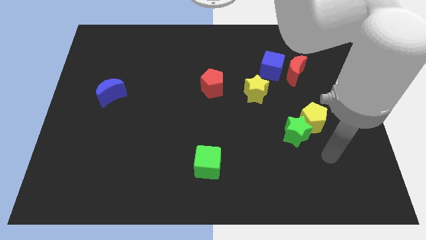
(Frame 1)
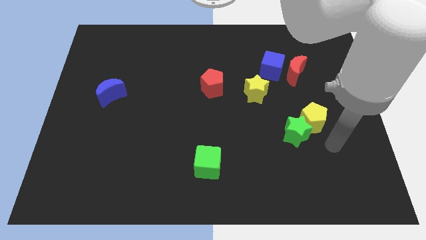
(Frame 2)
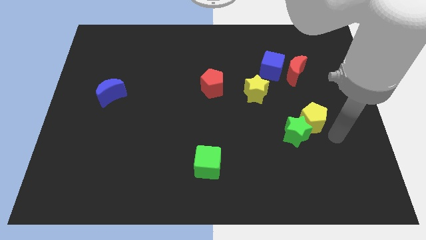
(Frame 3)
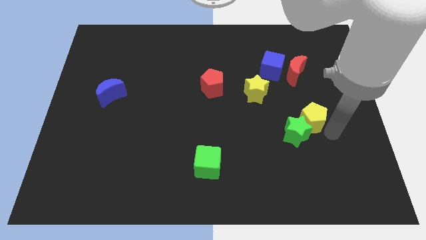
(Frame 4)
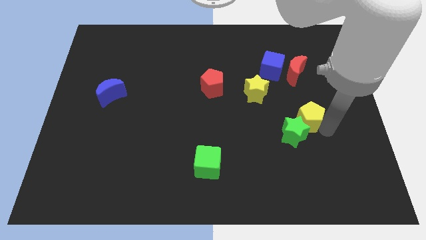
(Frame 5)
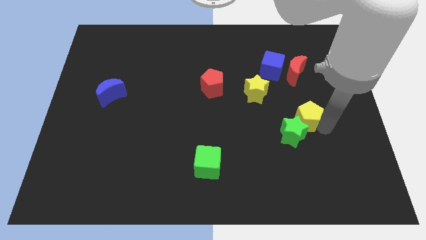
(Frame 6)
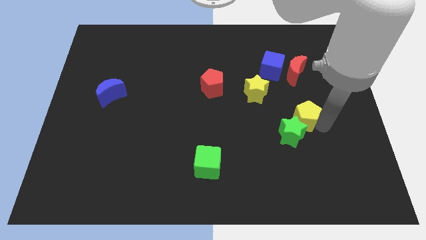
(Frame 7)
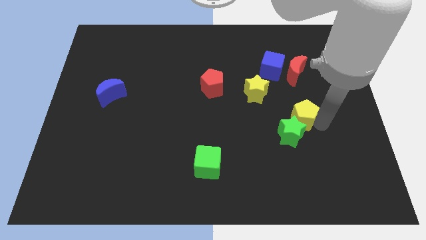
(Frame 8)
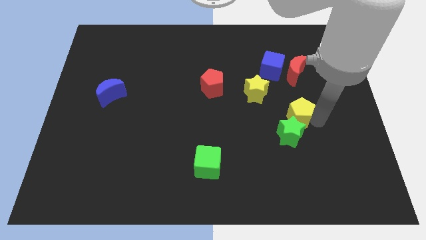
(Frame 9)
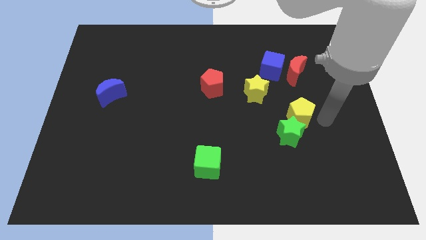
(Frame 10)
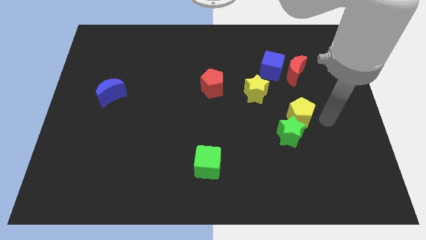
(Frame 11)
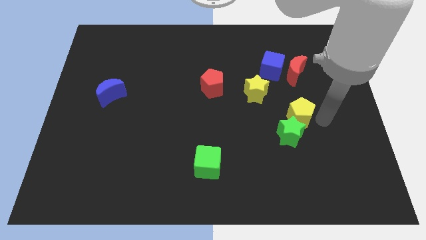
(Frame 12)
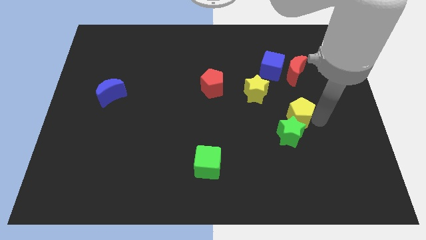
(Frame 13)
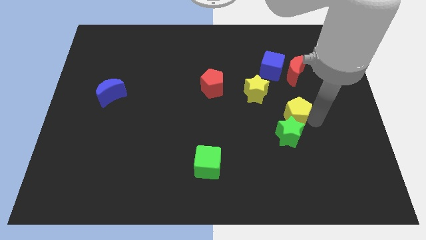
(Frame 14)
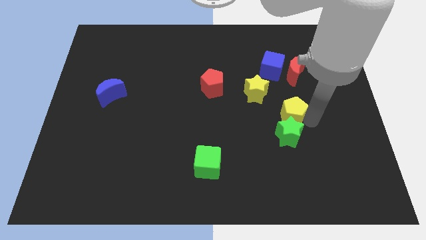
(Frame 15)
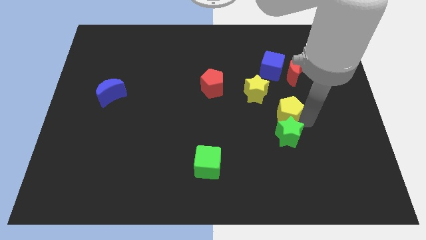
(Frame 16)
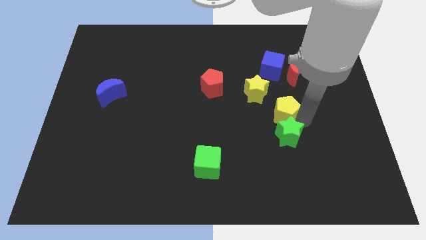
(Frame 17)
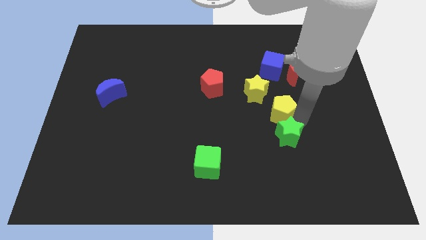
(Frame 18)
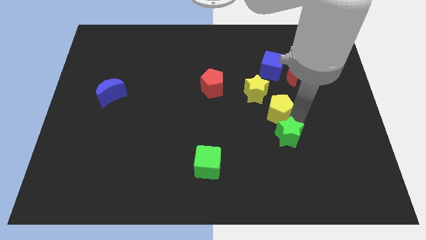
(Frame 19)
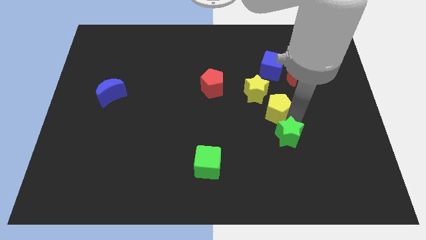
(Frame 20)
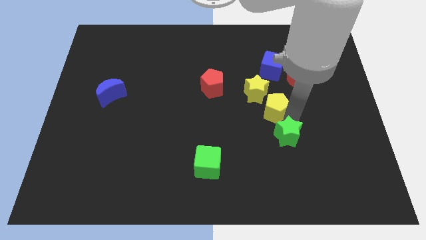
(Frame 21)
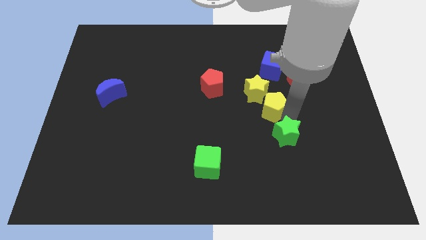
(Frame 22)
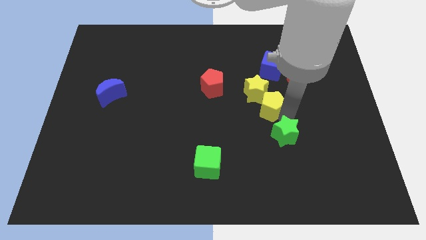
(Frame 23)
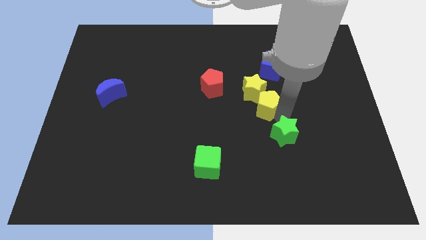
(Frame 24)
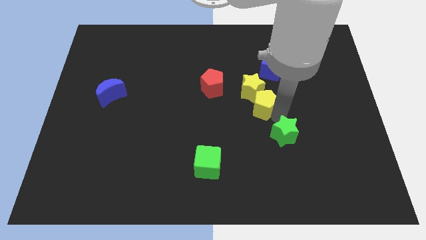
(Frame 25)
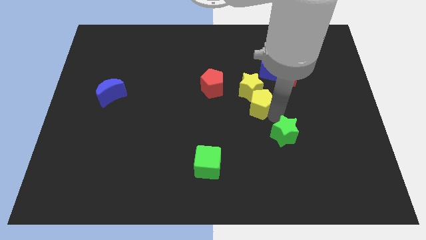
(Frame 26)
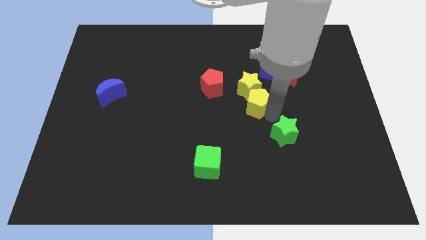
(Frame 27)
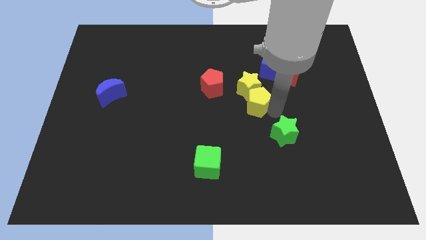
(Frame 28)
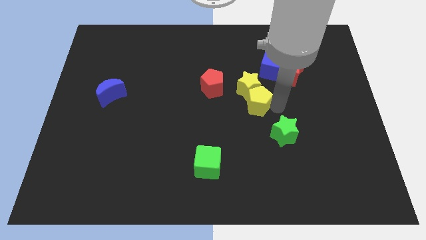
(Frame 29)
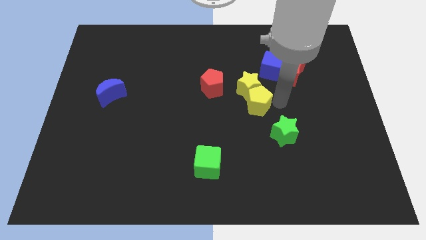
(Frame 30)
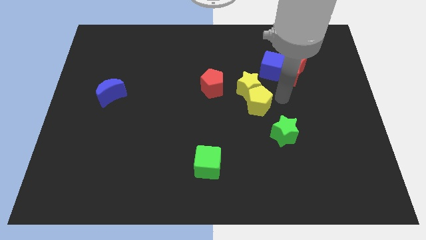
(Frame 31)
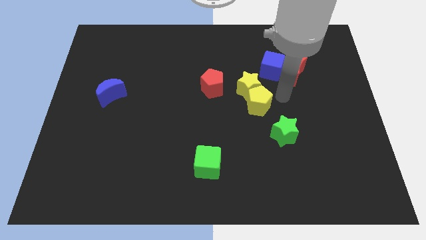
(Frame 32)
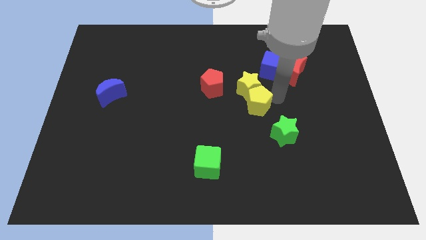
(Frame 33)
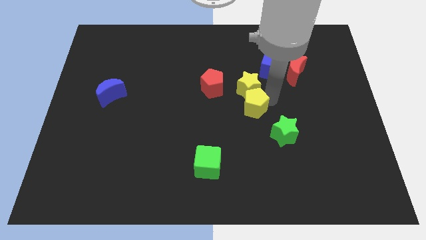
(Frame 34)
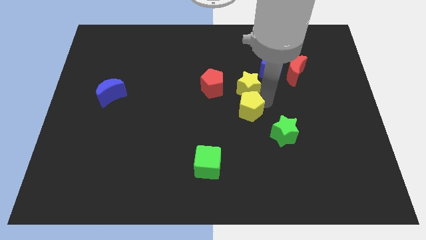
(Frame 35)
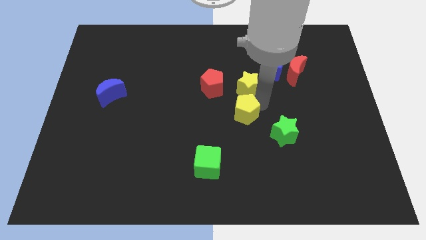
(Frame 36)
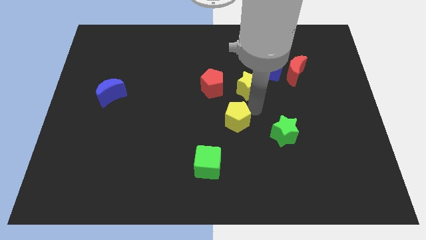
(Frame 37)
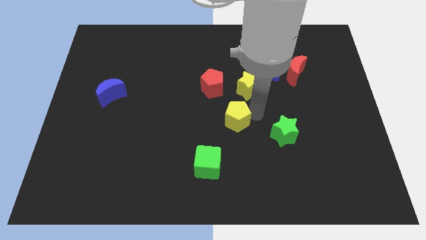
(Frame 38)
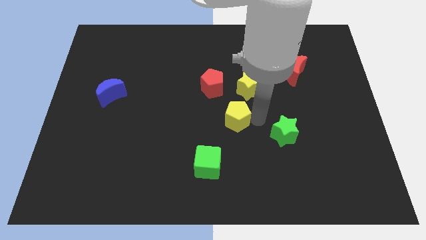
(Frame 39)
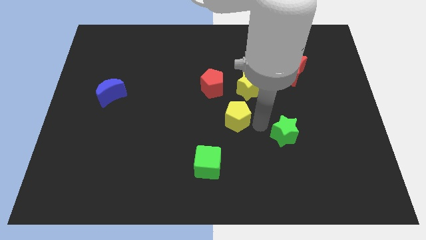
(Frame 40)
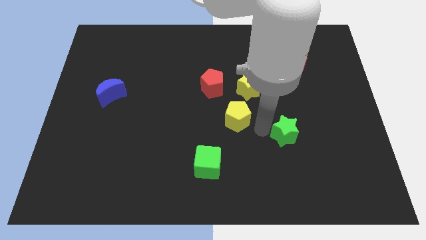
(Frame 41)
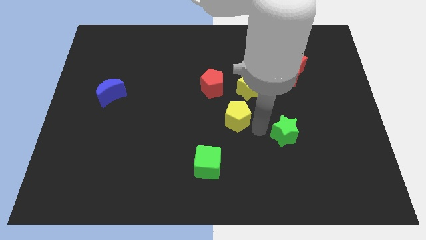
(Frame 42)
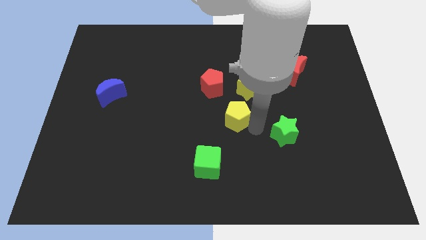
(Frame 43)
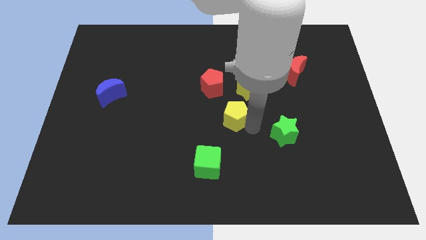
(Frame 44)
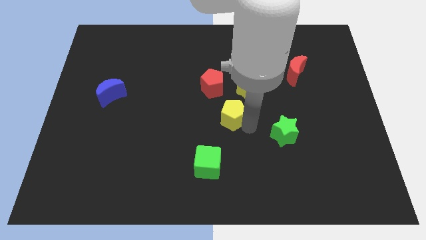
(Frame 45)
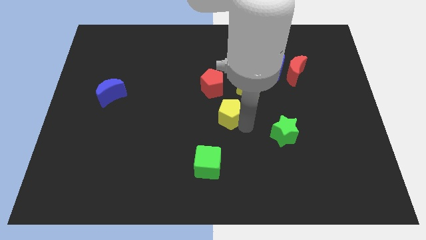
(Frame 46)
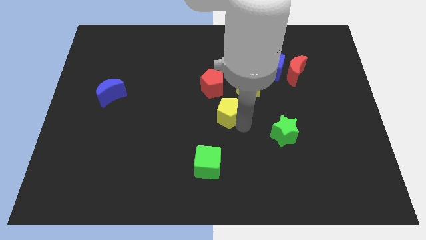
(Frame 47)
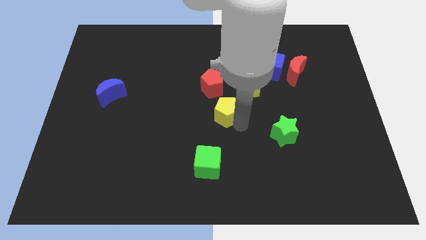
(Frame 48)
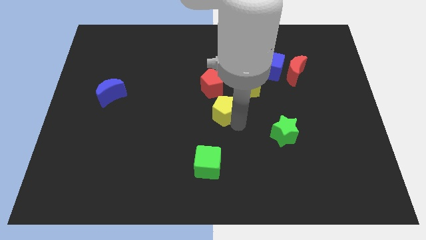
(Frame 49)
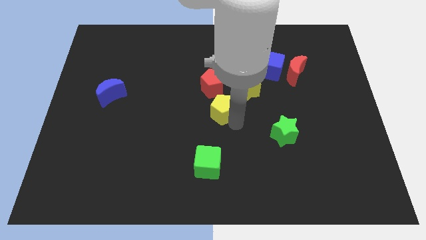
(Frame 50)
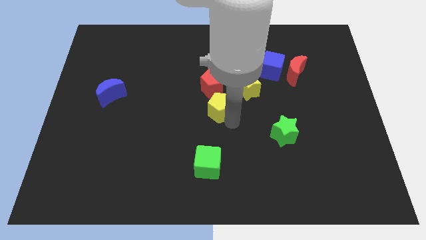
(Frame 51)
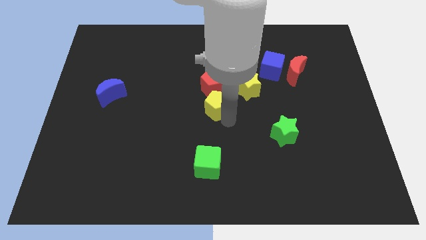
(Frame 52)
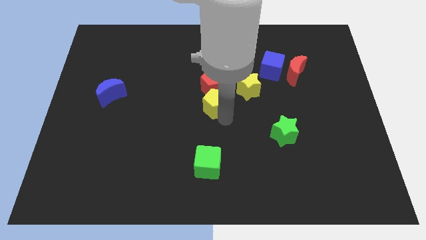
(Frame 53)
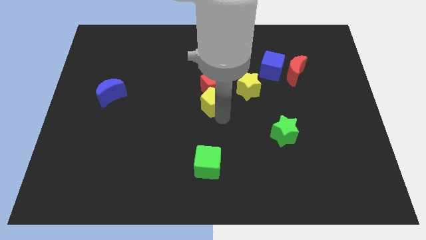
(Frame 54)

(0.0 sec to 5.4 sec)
put the yellow pentagon left of the yellow star

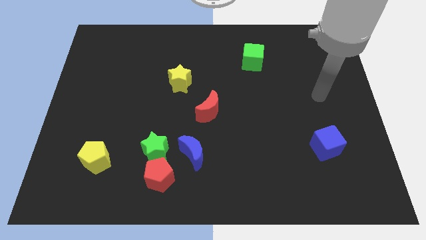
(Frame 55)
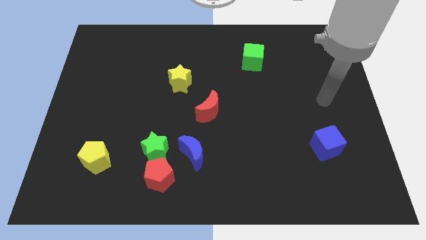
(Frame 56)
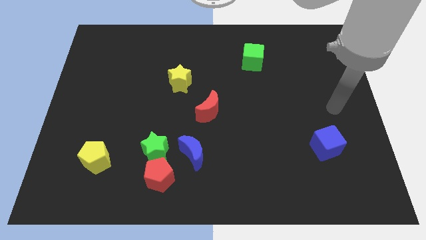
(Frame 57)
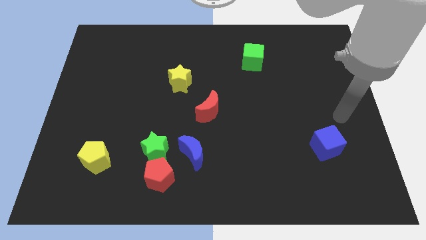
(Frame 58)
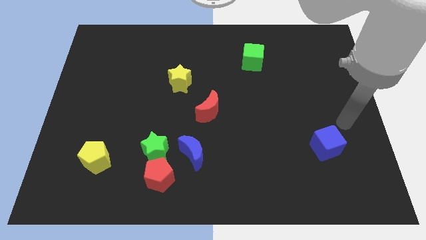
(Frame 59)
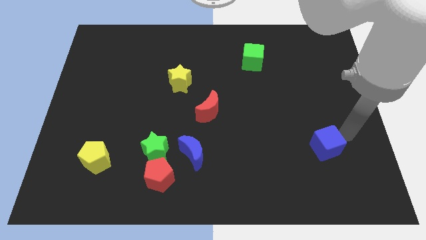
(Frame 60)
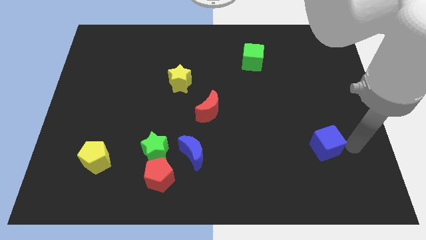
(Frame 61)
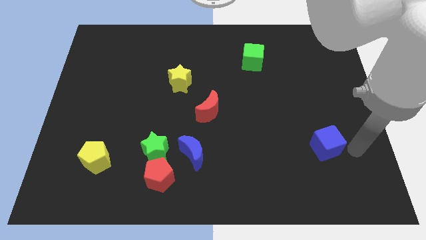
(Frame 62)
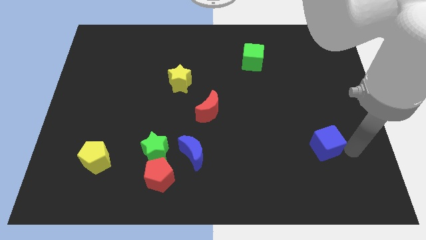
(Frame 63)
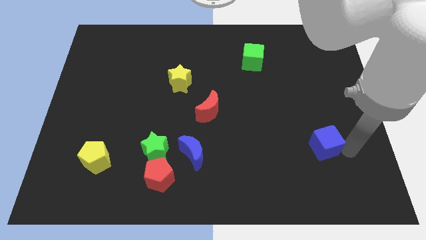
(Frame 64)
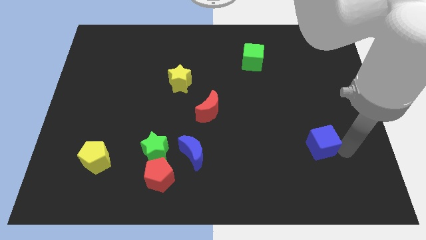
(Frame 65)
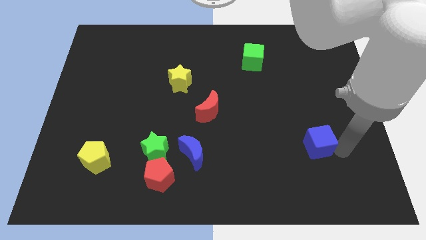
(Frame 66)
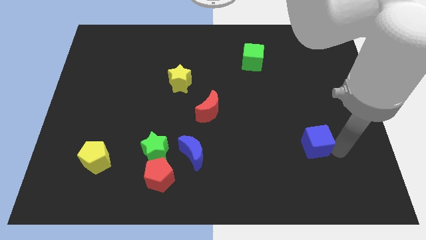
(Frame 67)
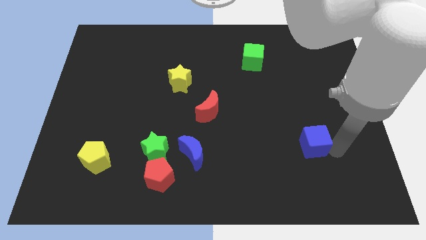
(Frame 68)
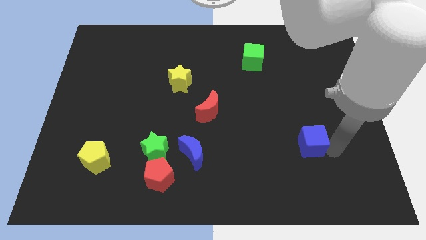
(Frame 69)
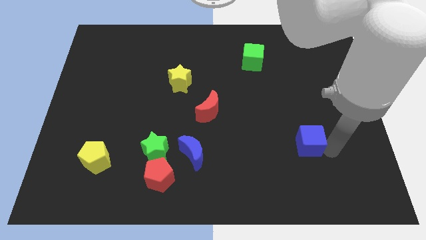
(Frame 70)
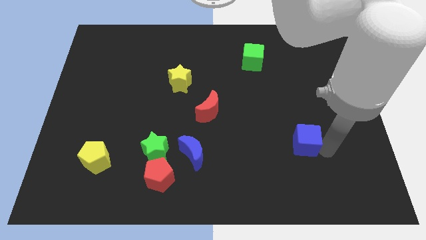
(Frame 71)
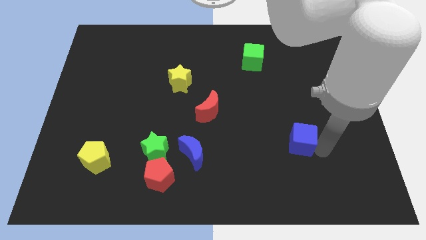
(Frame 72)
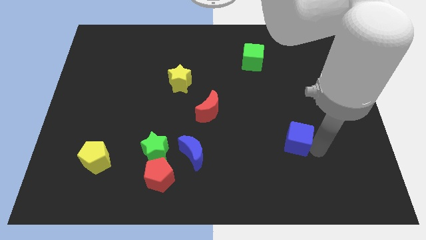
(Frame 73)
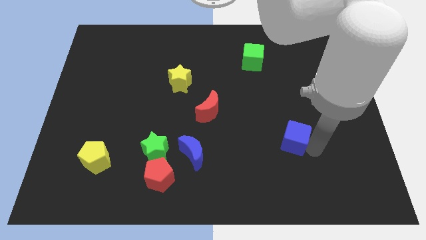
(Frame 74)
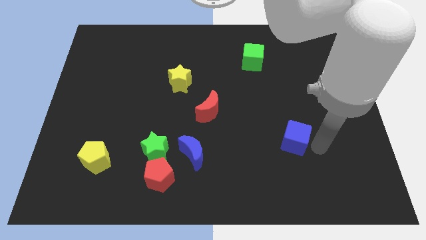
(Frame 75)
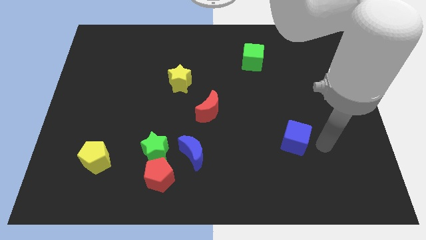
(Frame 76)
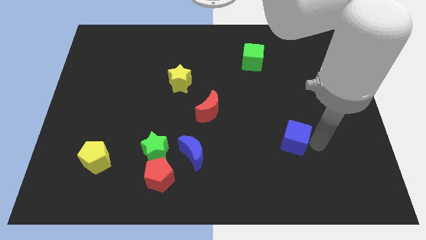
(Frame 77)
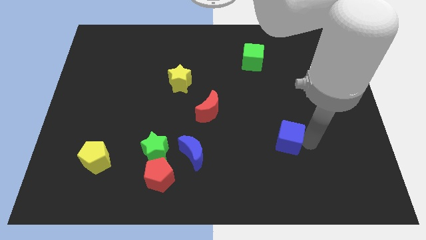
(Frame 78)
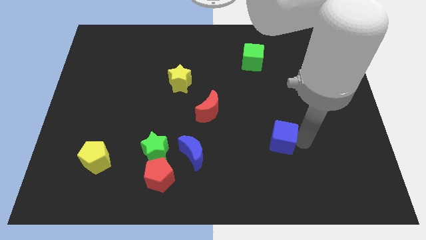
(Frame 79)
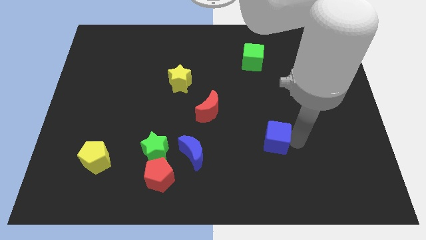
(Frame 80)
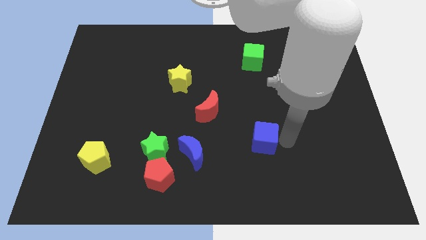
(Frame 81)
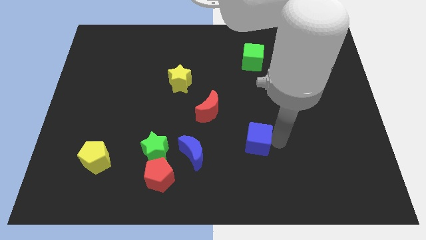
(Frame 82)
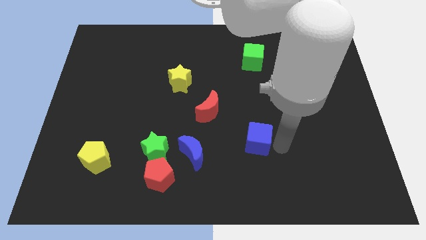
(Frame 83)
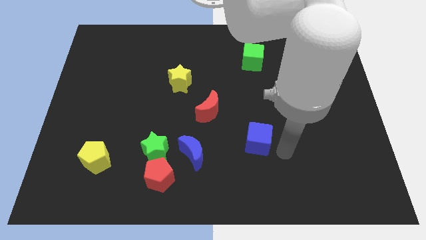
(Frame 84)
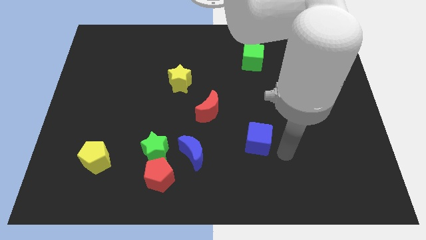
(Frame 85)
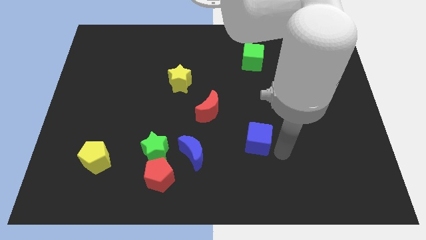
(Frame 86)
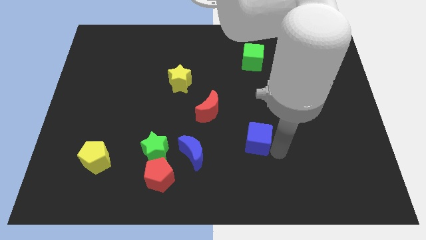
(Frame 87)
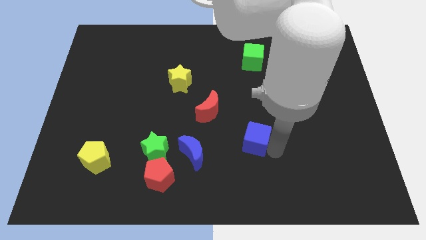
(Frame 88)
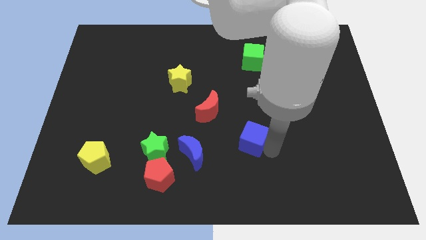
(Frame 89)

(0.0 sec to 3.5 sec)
slide the blue cube diagonally down and to the right of the red moon
